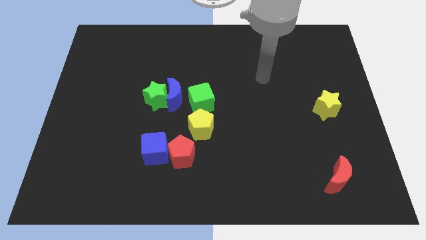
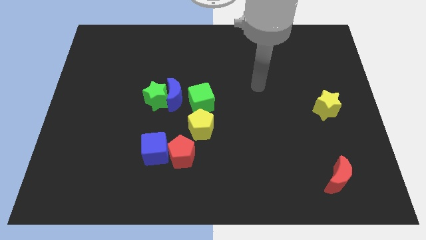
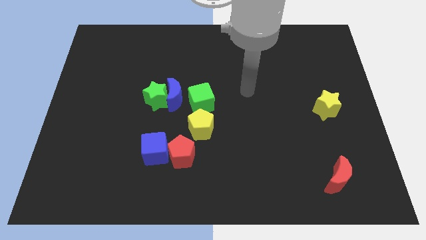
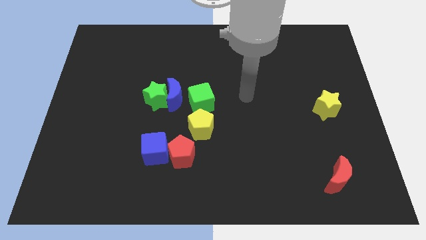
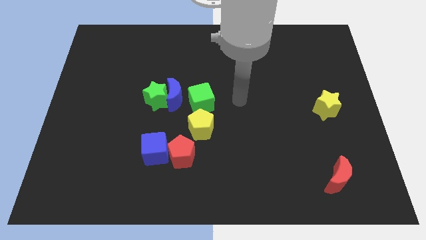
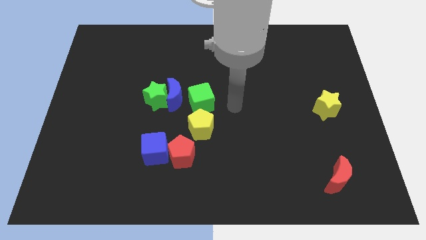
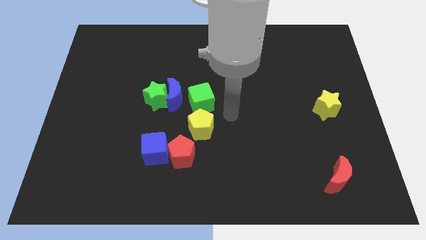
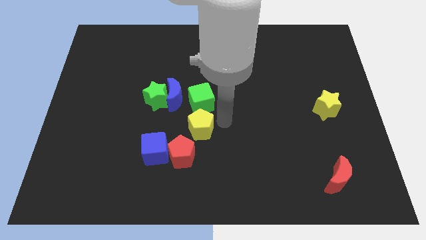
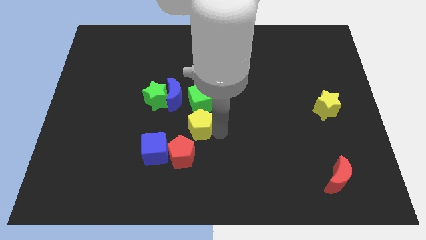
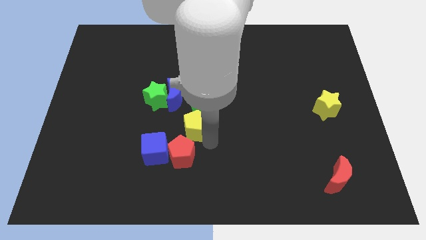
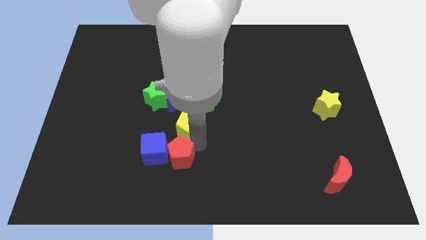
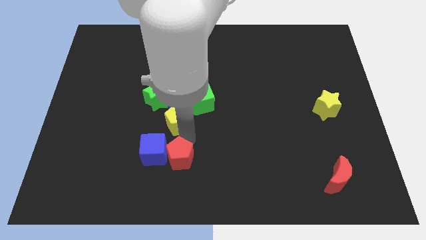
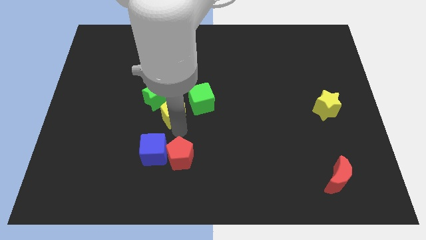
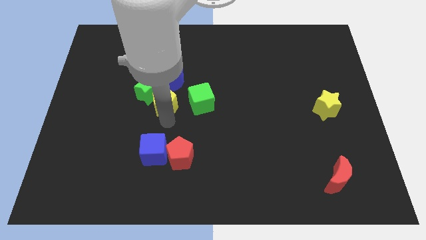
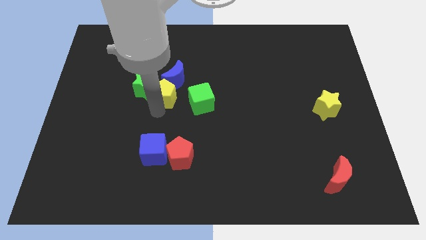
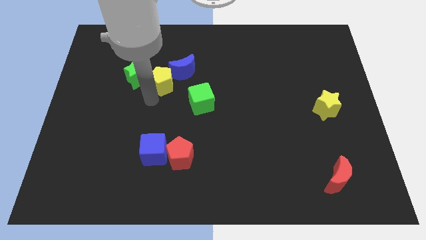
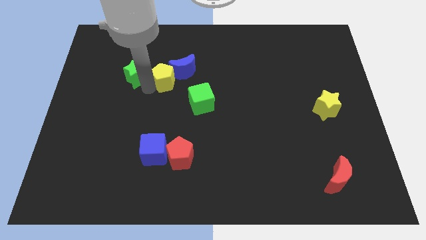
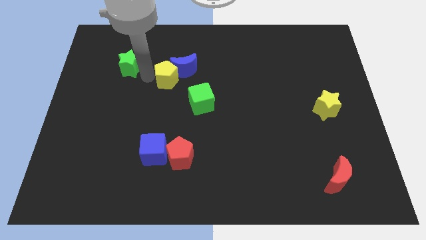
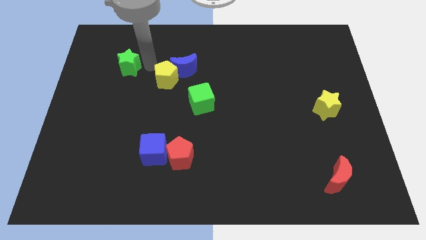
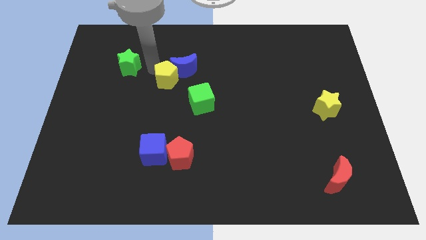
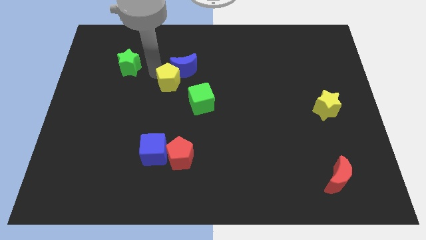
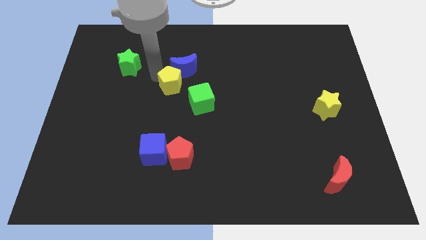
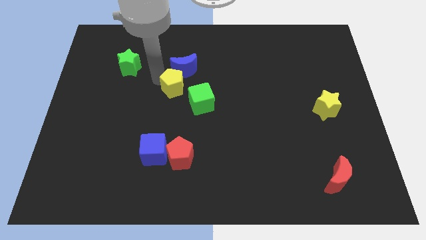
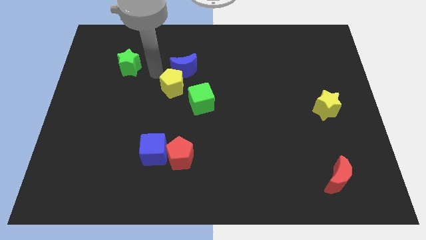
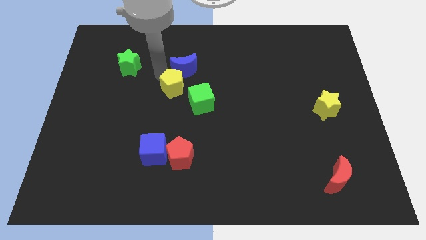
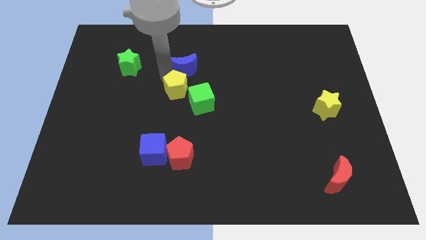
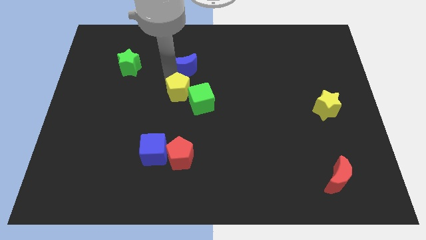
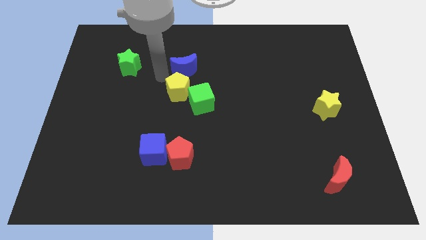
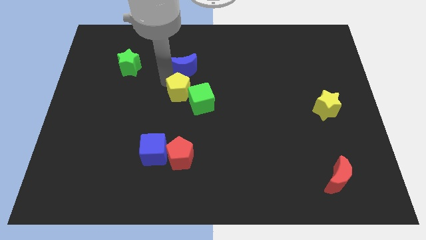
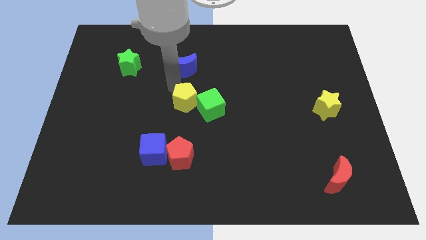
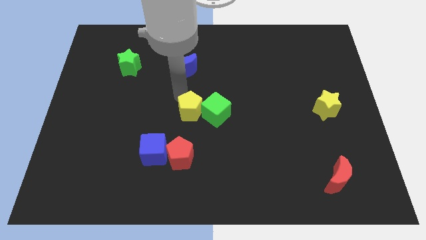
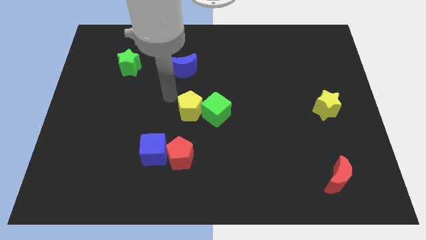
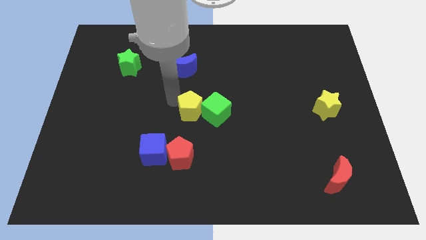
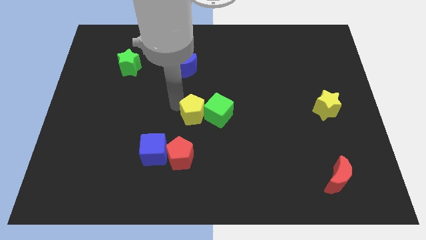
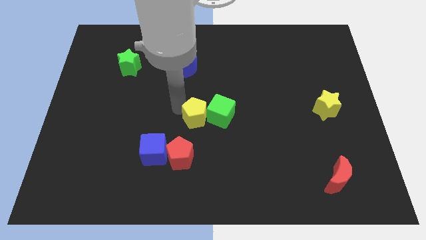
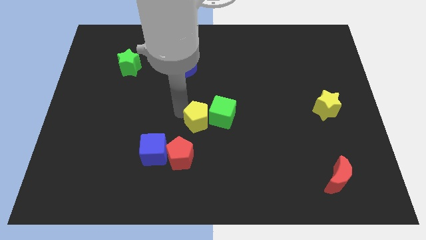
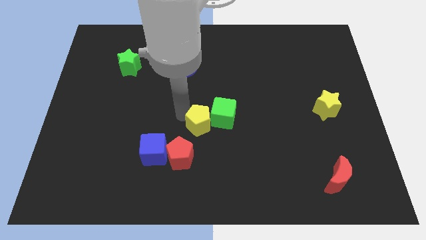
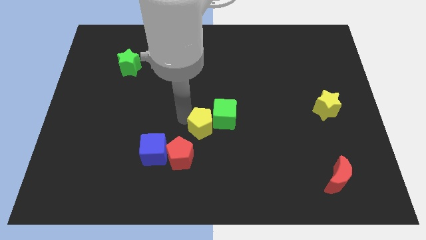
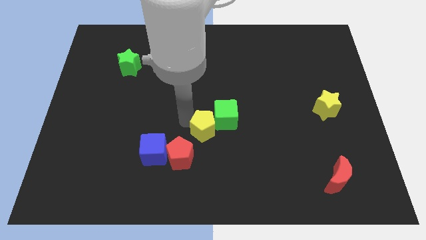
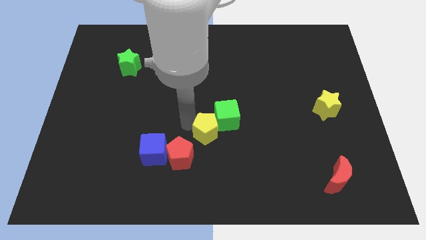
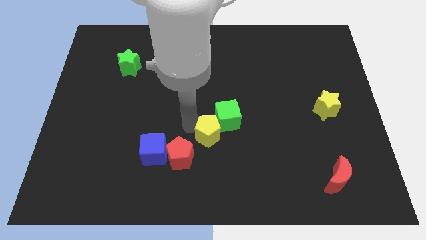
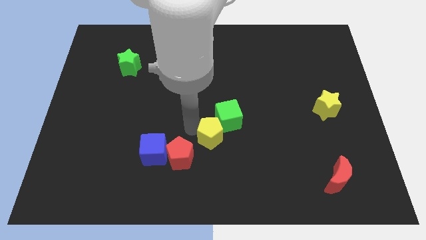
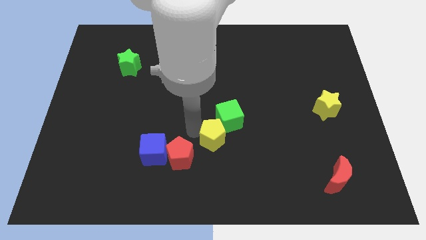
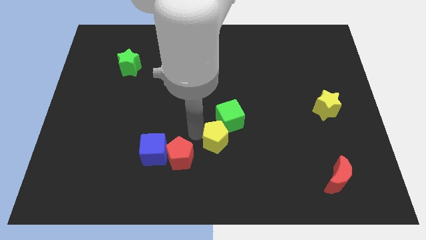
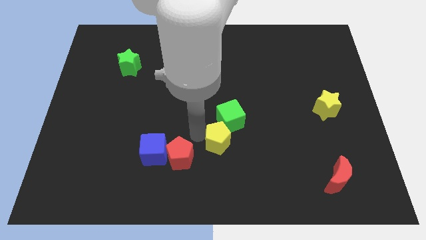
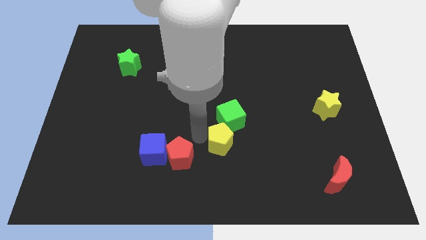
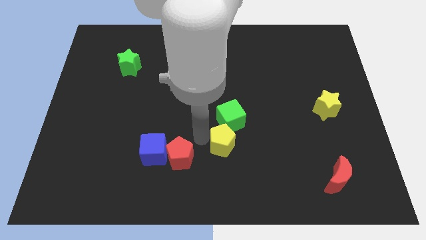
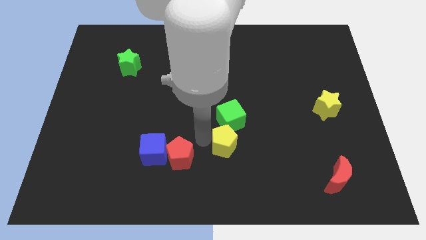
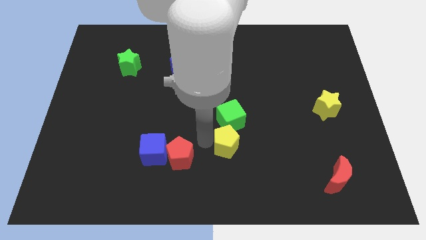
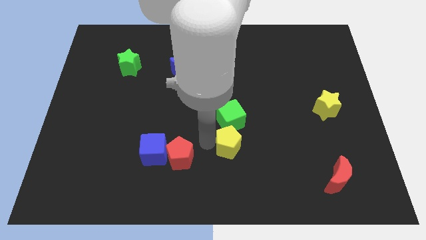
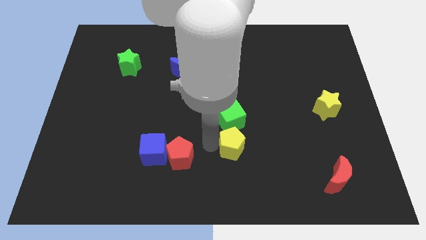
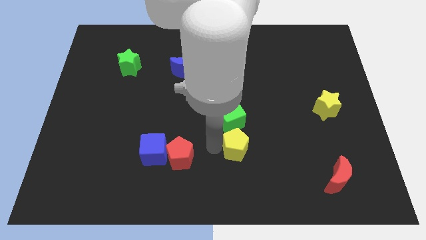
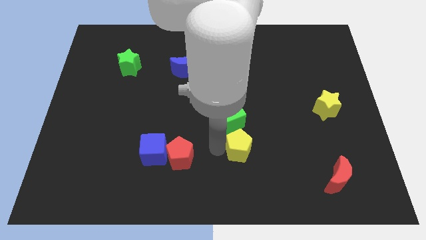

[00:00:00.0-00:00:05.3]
slightly slide the yellow pentagon right

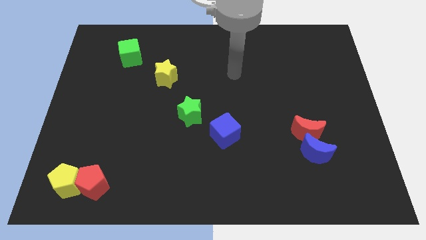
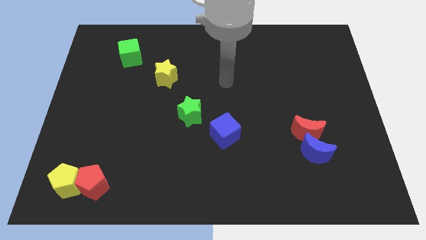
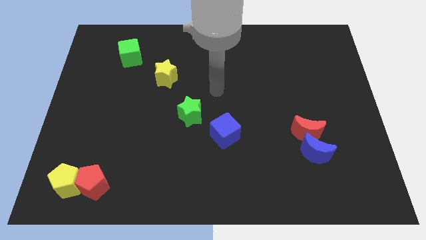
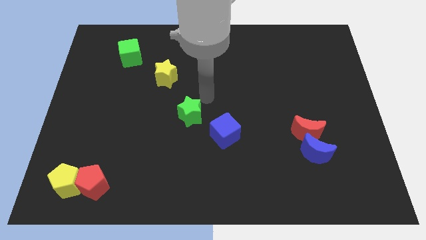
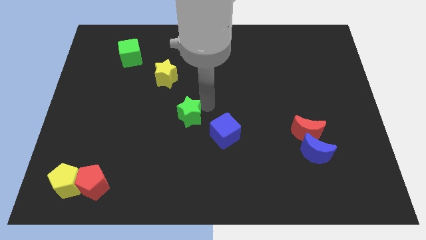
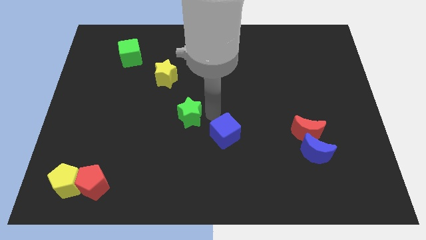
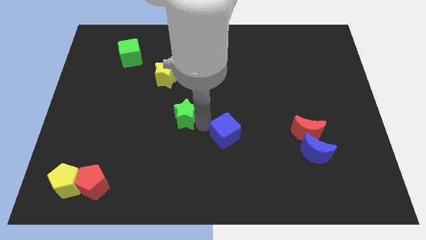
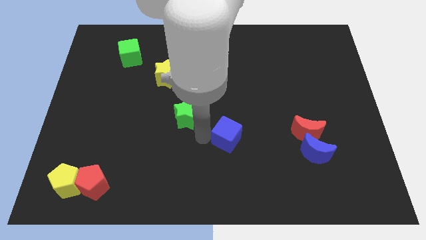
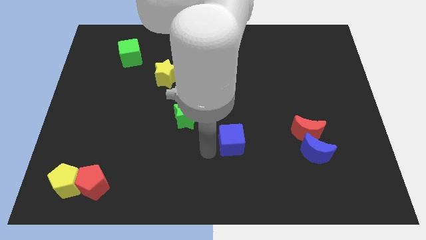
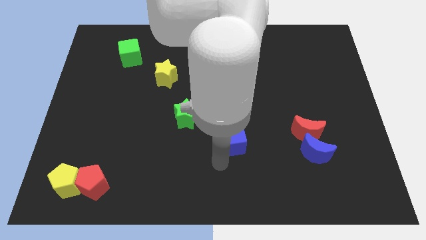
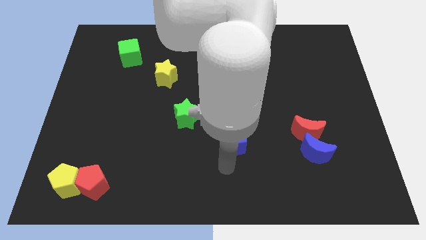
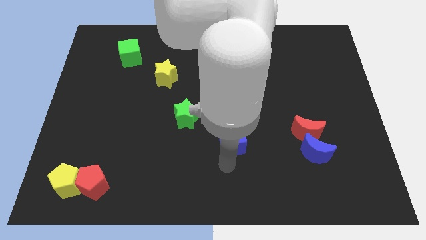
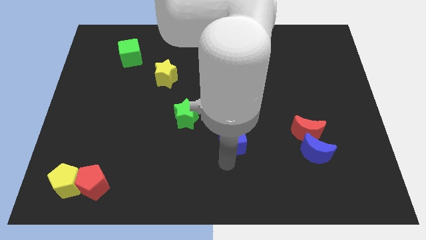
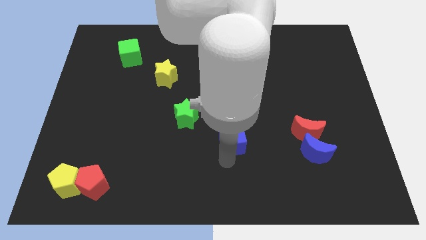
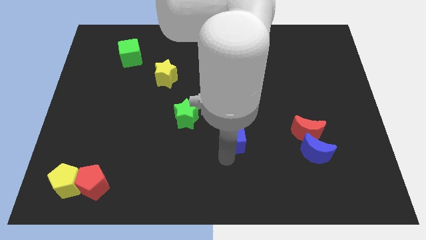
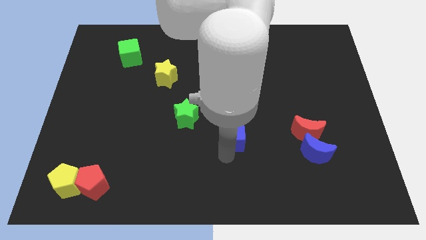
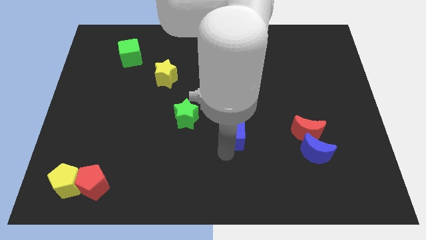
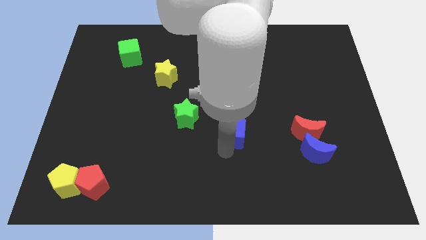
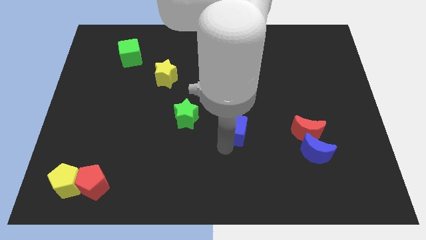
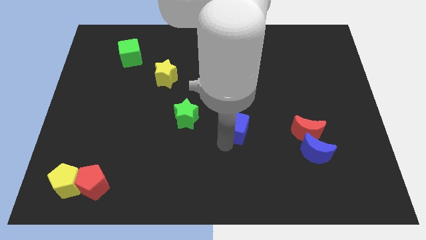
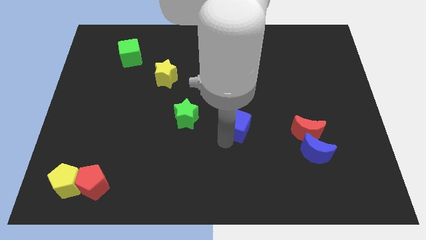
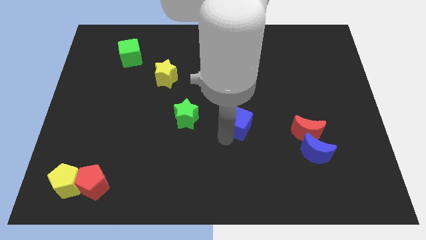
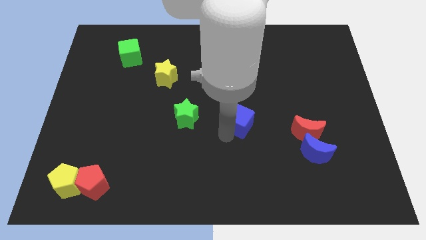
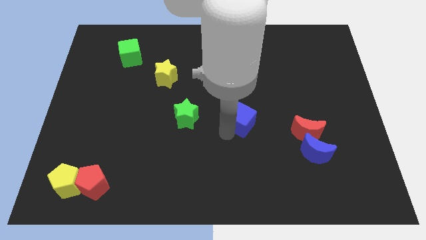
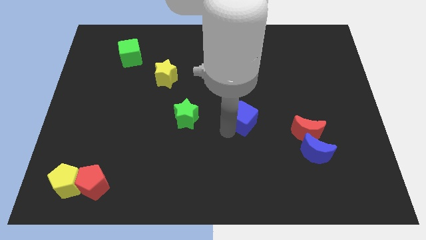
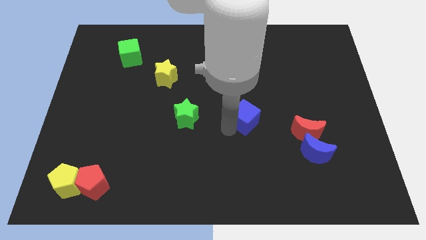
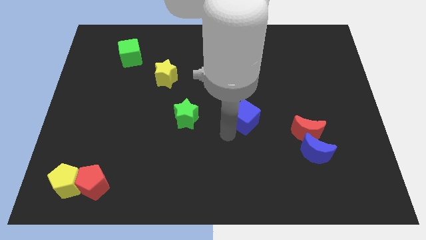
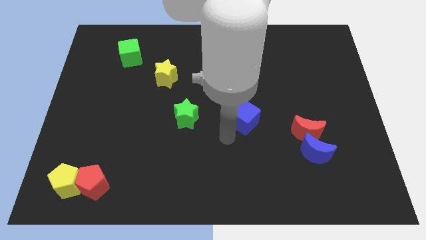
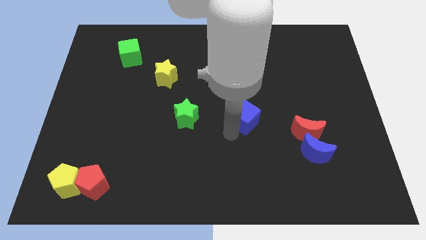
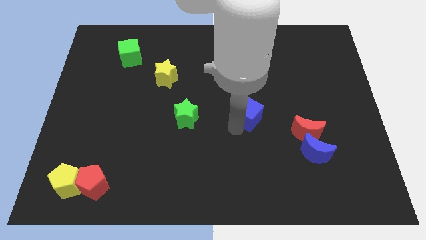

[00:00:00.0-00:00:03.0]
slightly slide the blue cube diagonally upwards and right
